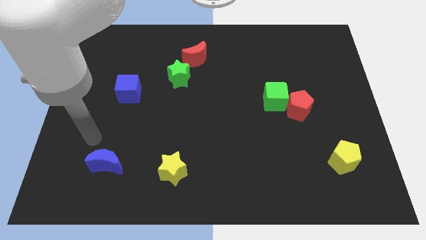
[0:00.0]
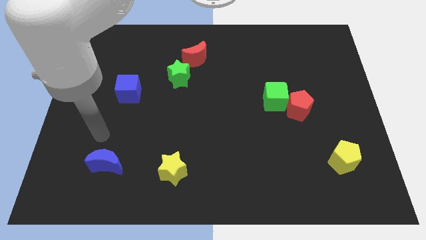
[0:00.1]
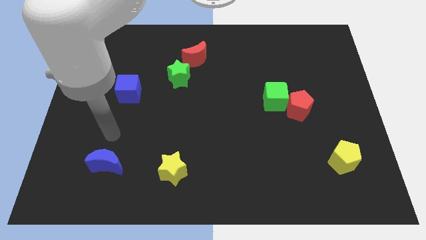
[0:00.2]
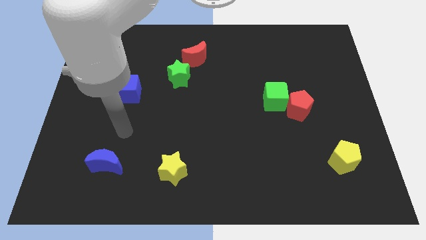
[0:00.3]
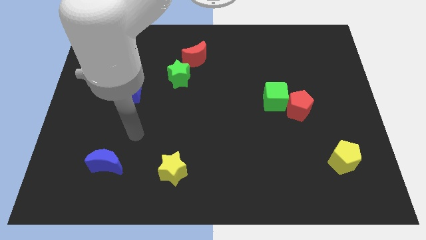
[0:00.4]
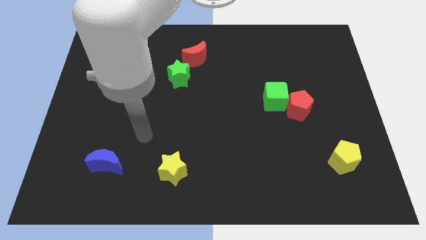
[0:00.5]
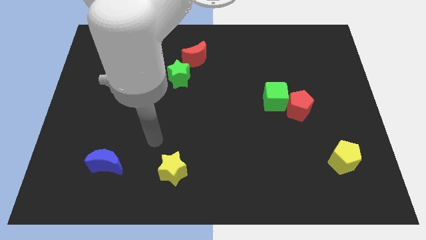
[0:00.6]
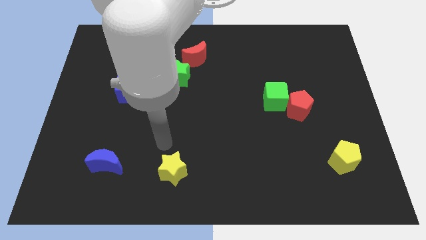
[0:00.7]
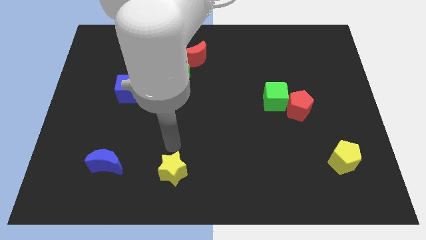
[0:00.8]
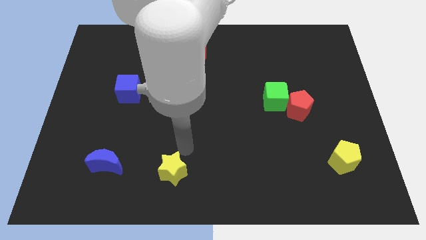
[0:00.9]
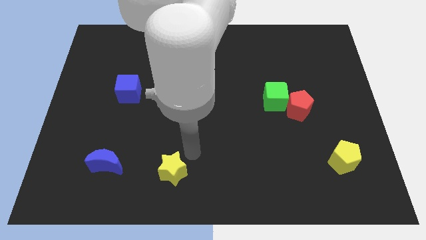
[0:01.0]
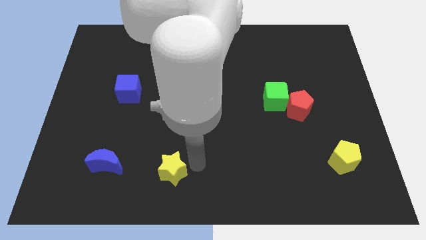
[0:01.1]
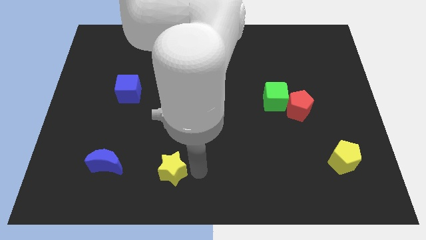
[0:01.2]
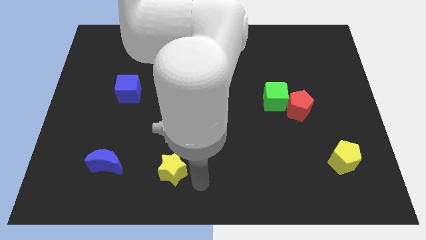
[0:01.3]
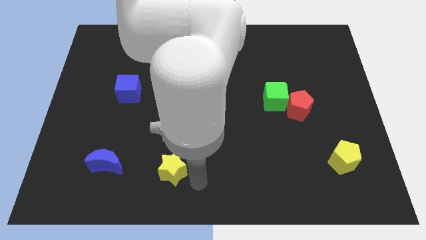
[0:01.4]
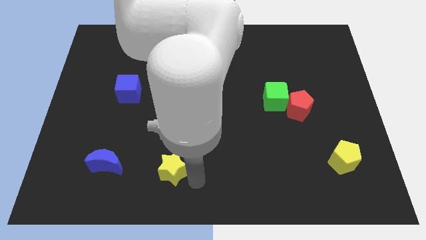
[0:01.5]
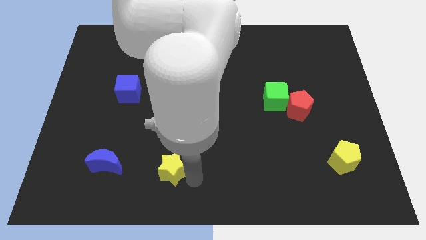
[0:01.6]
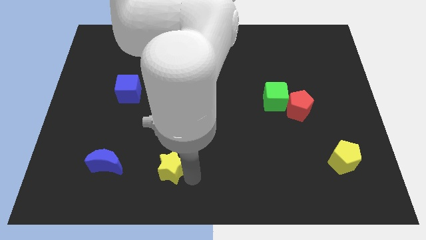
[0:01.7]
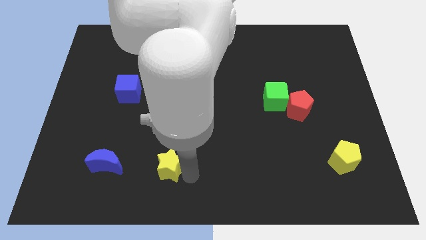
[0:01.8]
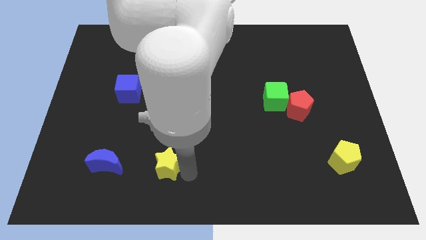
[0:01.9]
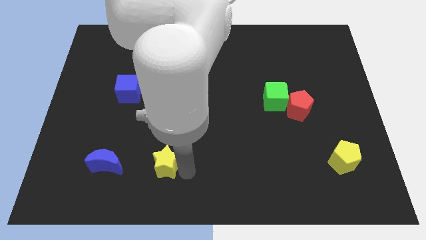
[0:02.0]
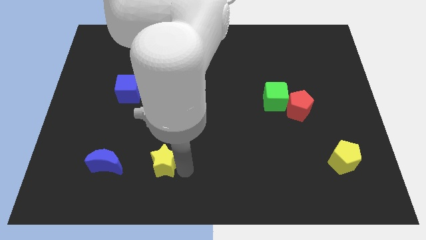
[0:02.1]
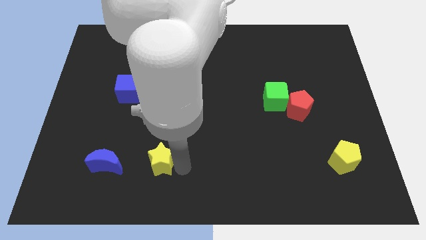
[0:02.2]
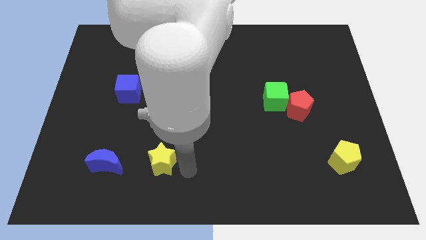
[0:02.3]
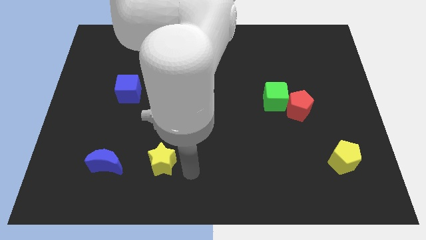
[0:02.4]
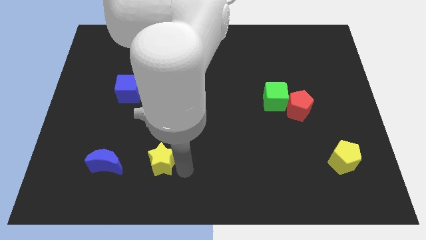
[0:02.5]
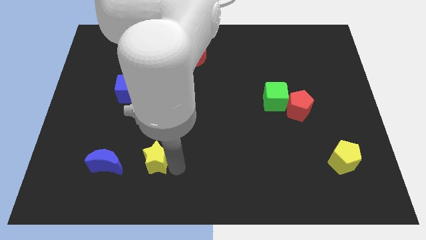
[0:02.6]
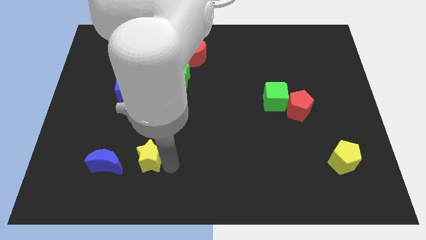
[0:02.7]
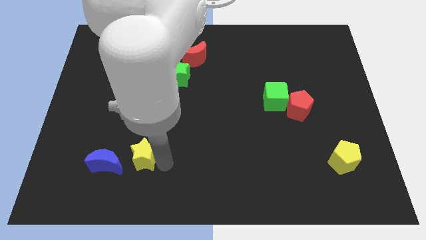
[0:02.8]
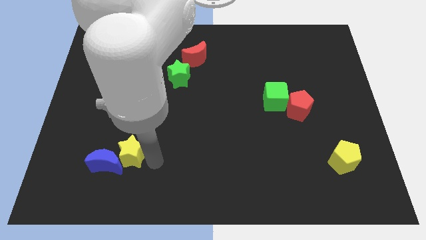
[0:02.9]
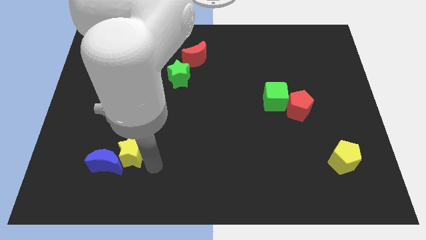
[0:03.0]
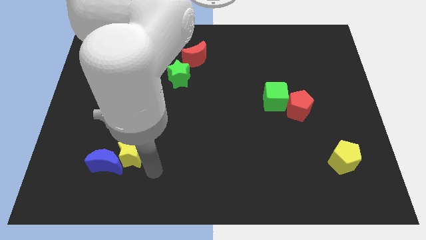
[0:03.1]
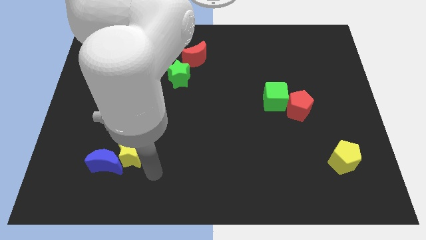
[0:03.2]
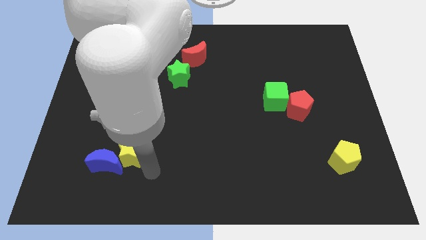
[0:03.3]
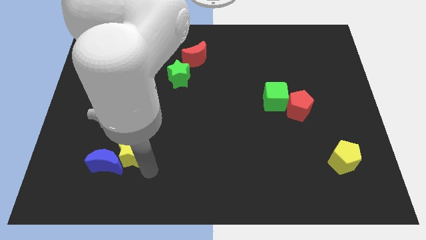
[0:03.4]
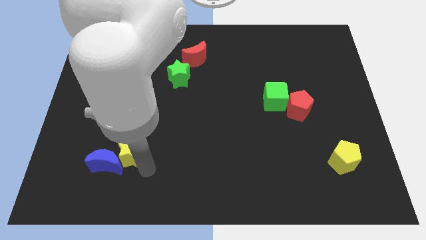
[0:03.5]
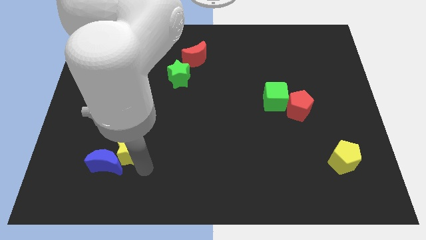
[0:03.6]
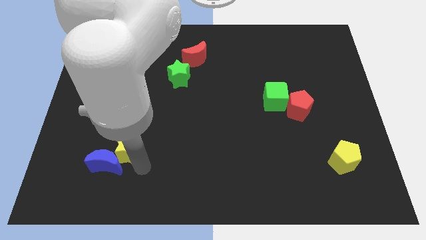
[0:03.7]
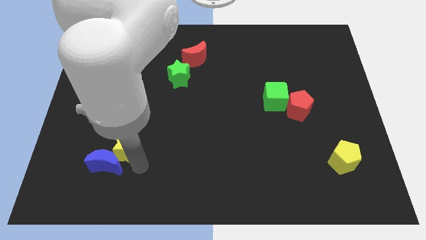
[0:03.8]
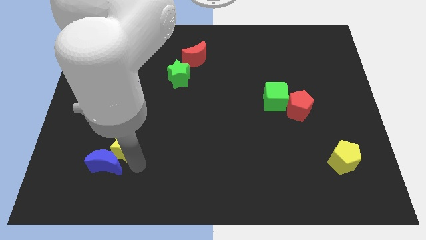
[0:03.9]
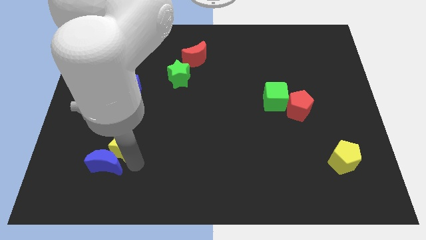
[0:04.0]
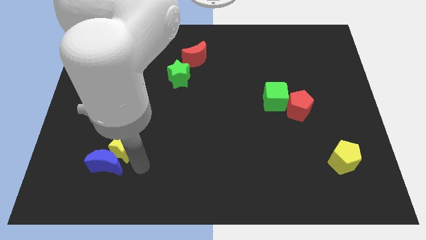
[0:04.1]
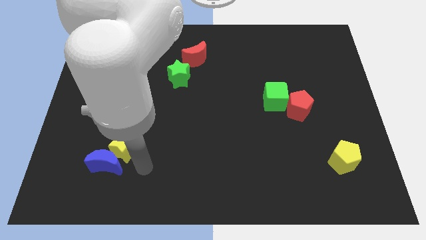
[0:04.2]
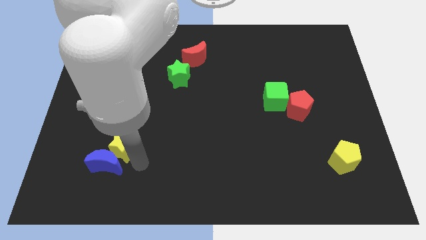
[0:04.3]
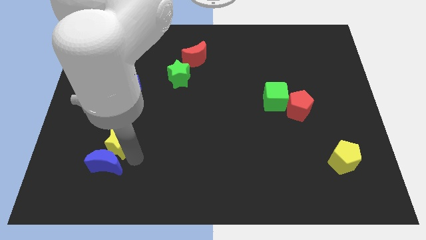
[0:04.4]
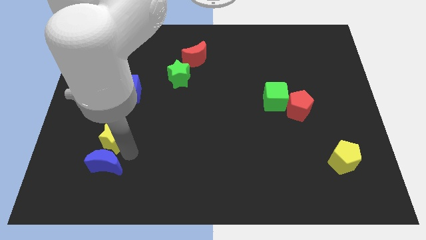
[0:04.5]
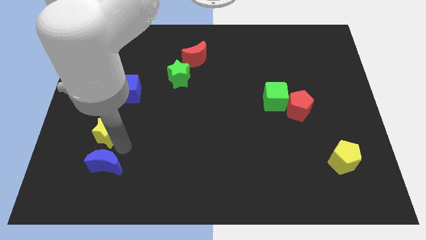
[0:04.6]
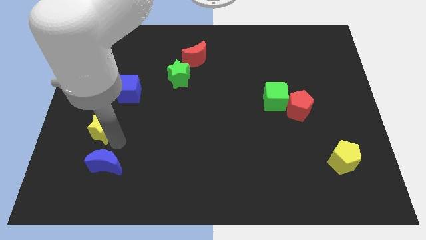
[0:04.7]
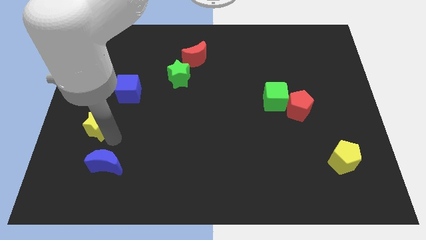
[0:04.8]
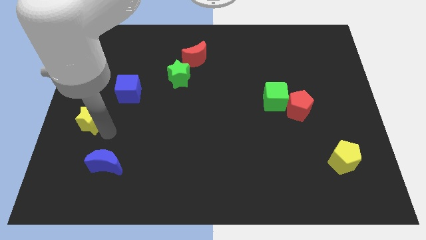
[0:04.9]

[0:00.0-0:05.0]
put the yellow star to the left side of the board

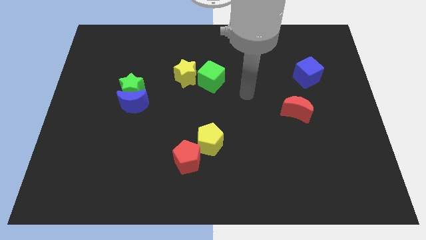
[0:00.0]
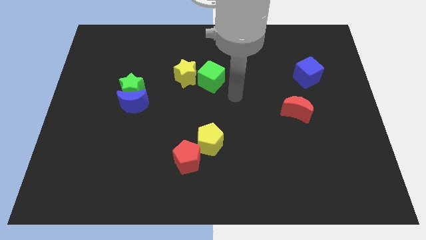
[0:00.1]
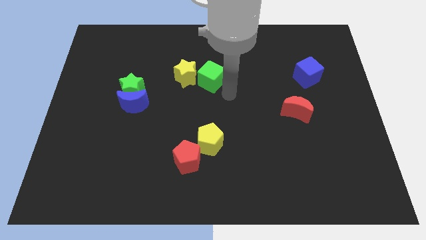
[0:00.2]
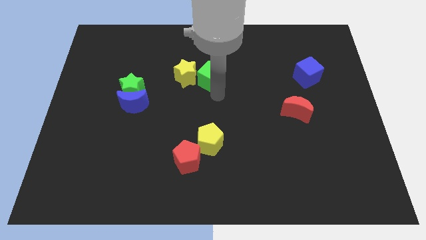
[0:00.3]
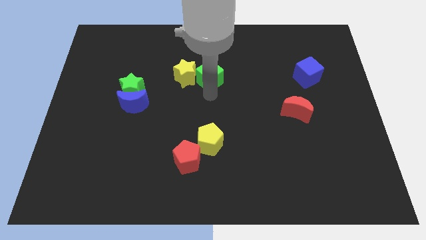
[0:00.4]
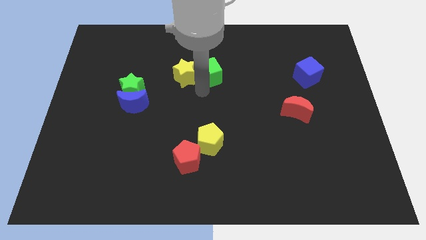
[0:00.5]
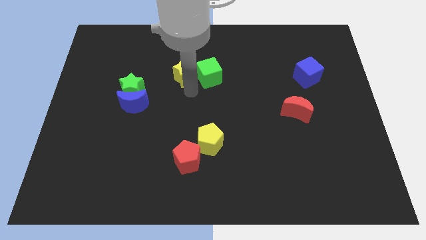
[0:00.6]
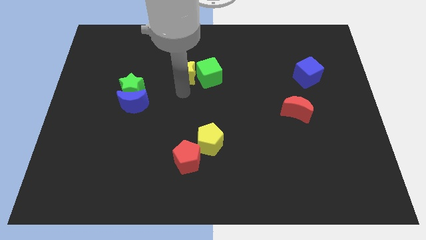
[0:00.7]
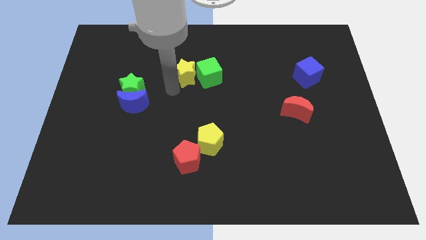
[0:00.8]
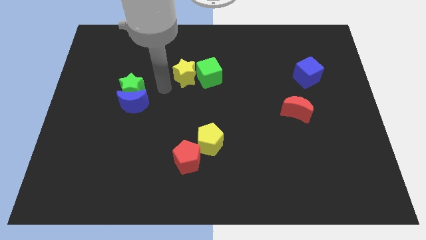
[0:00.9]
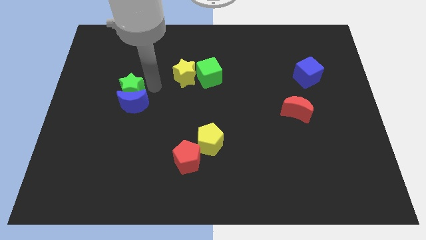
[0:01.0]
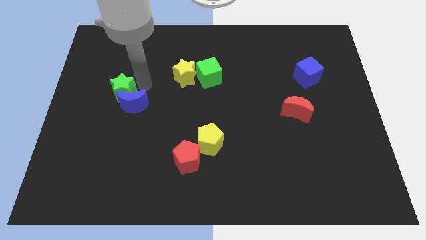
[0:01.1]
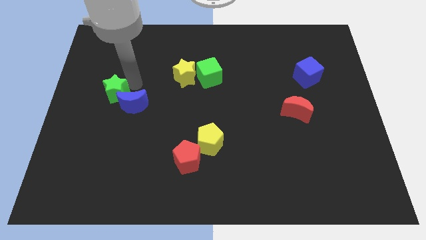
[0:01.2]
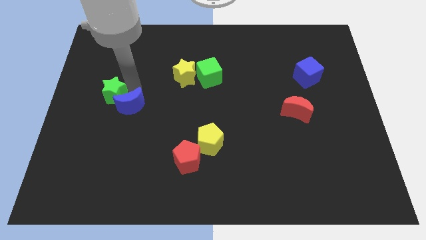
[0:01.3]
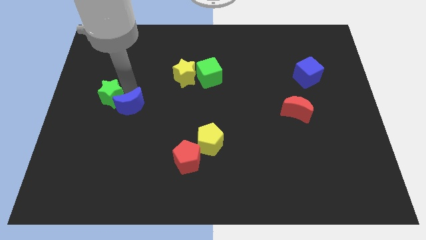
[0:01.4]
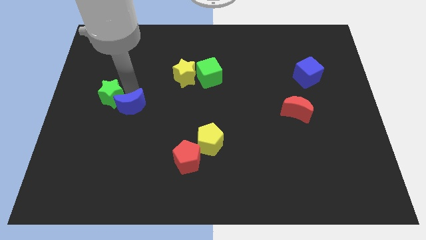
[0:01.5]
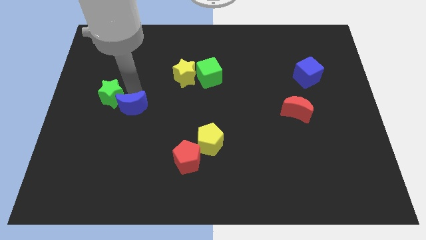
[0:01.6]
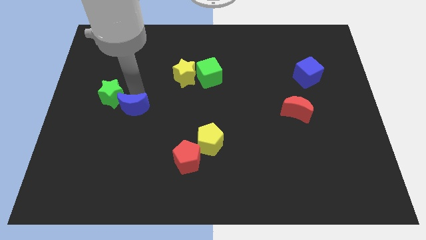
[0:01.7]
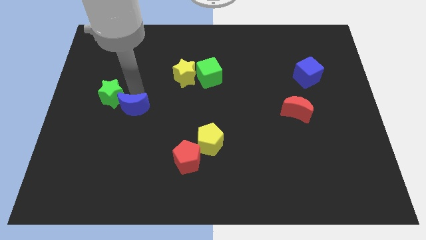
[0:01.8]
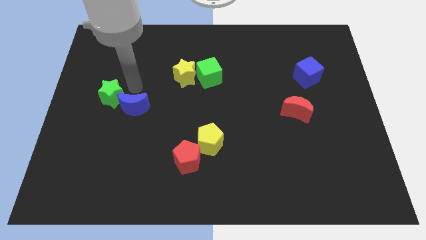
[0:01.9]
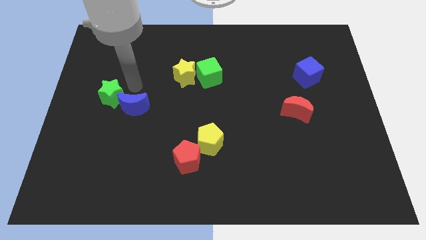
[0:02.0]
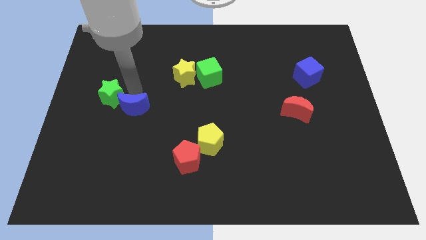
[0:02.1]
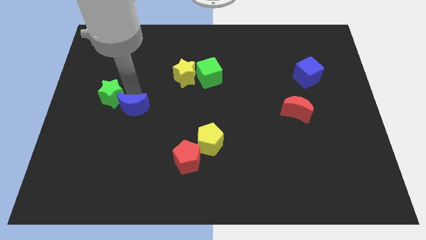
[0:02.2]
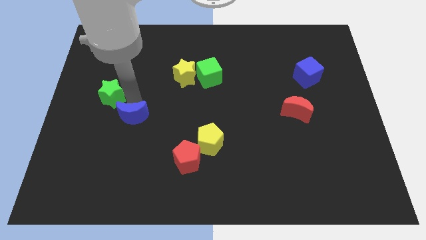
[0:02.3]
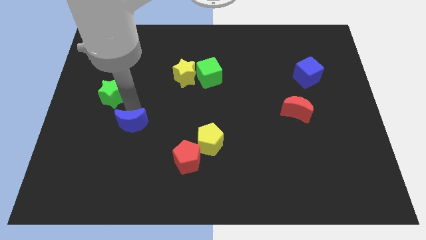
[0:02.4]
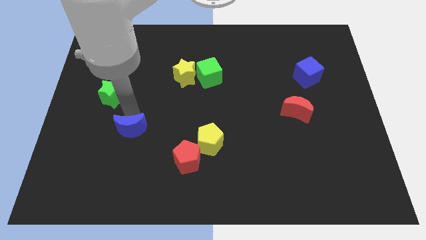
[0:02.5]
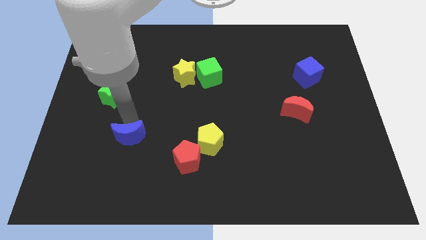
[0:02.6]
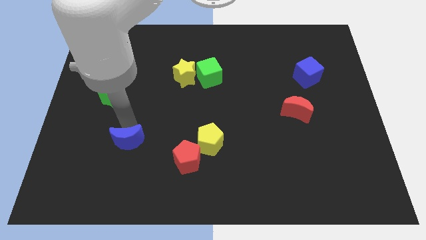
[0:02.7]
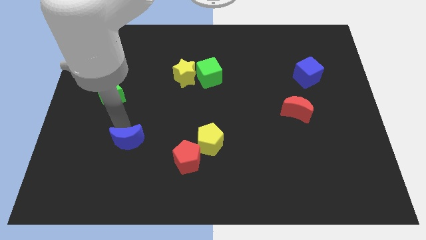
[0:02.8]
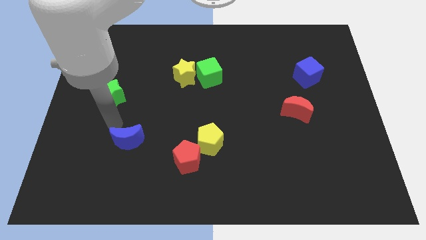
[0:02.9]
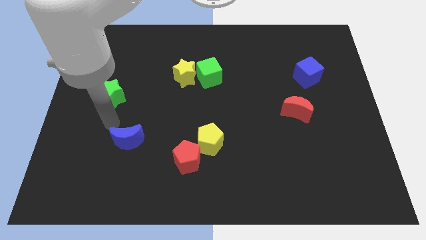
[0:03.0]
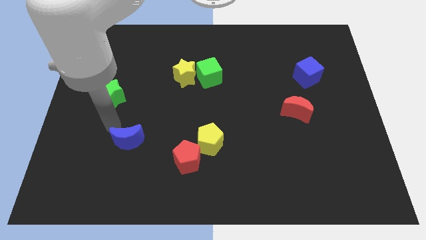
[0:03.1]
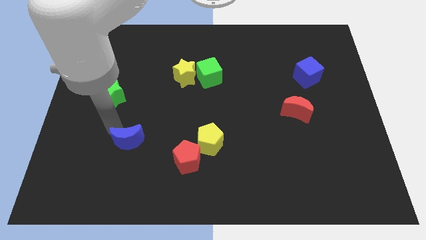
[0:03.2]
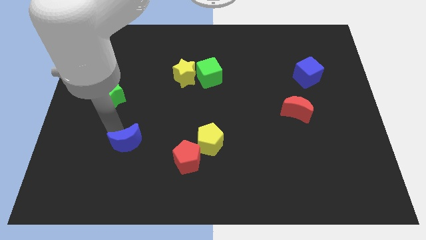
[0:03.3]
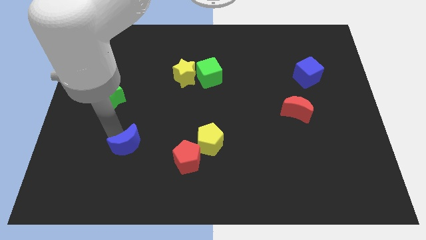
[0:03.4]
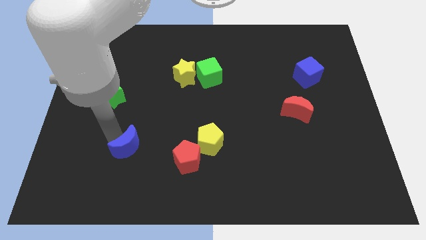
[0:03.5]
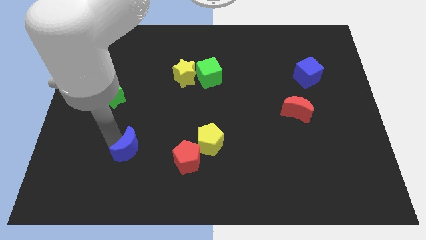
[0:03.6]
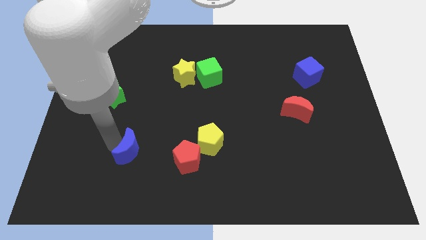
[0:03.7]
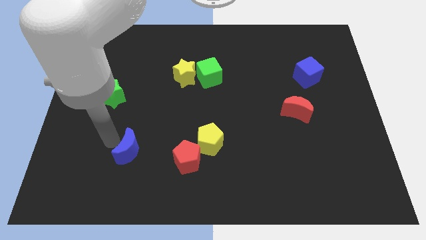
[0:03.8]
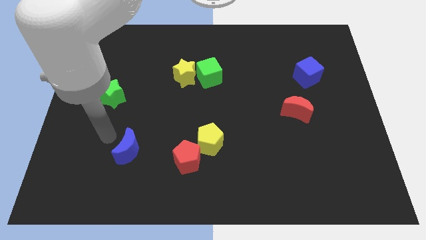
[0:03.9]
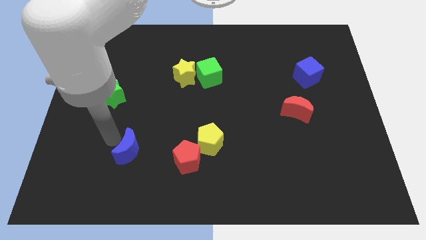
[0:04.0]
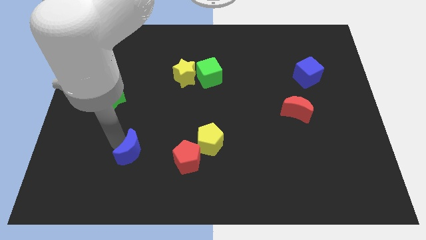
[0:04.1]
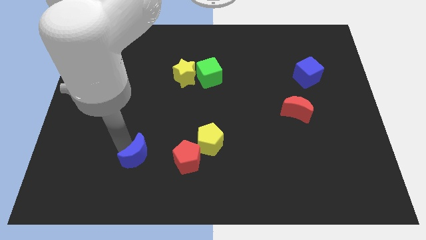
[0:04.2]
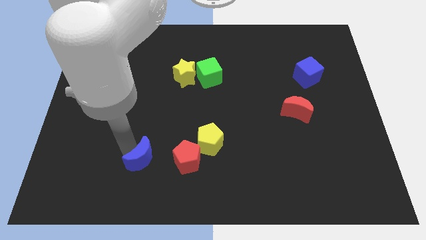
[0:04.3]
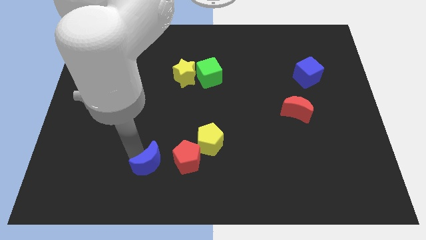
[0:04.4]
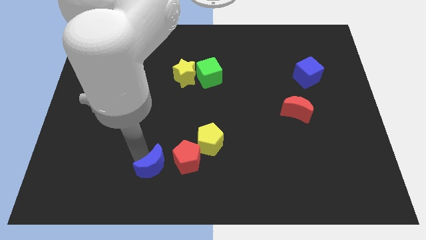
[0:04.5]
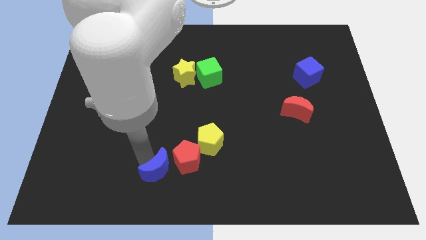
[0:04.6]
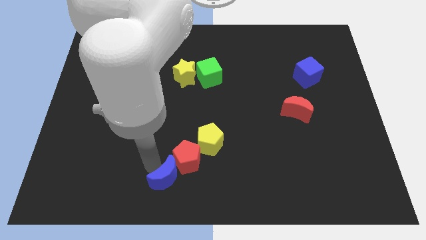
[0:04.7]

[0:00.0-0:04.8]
slide the blue moon to the bottom
